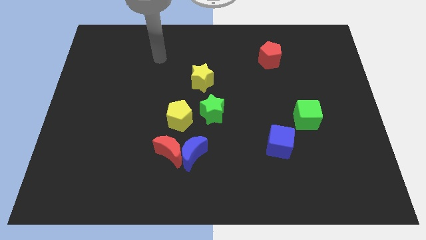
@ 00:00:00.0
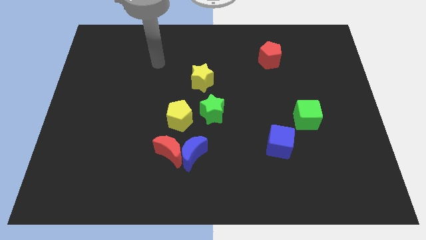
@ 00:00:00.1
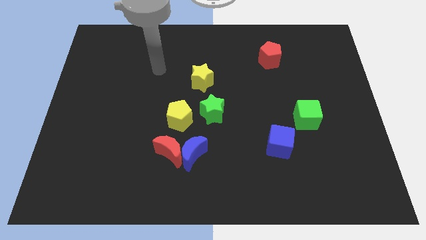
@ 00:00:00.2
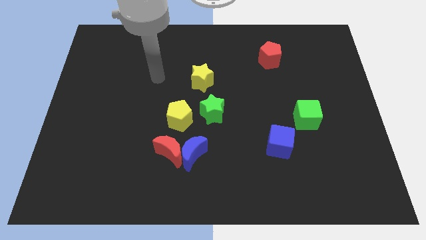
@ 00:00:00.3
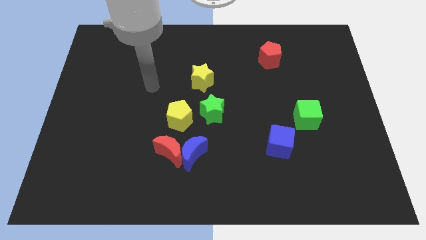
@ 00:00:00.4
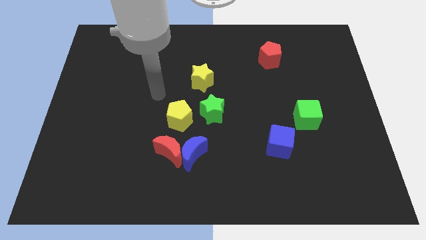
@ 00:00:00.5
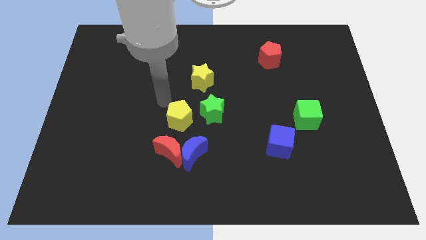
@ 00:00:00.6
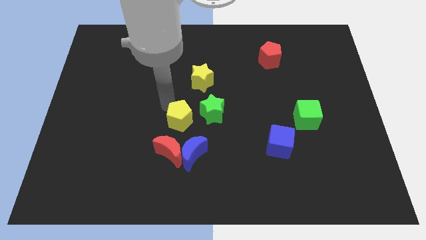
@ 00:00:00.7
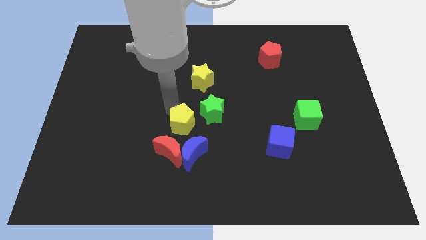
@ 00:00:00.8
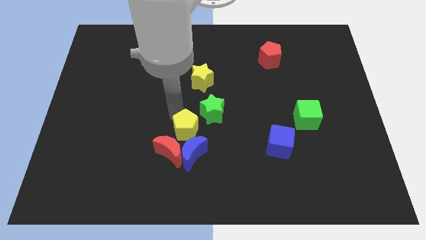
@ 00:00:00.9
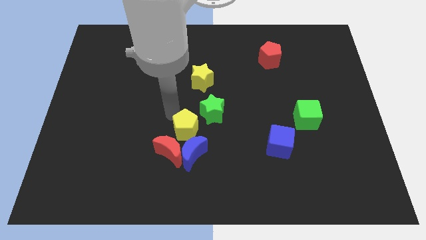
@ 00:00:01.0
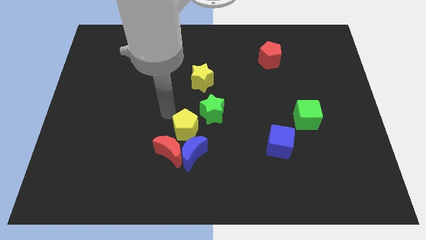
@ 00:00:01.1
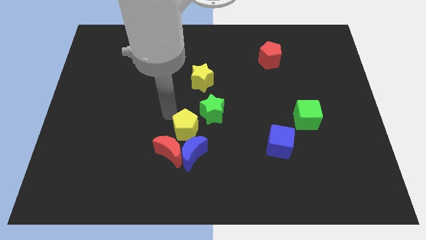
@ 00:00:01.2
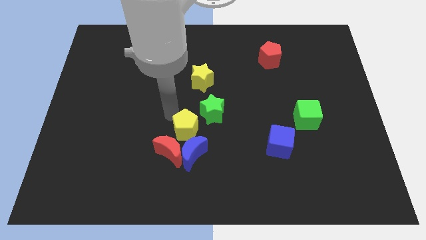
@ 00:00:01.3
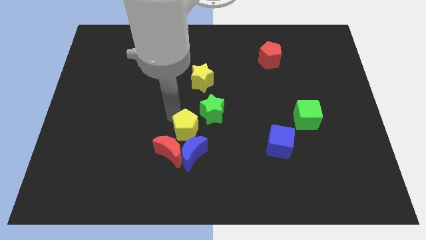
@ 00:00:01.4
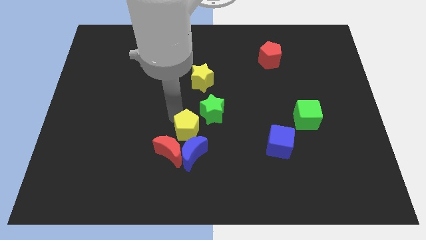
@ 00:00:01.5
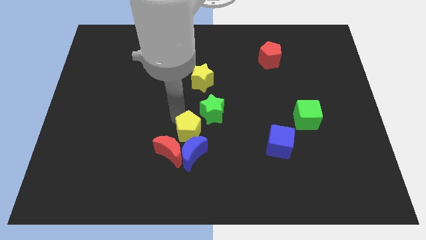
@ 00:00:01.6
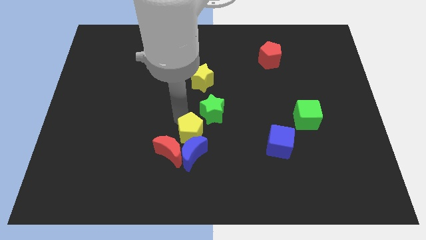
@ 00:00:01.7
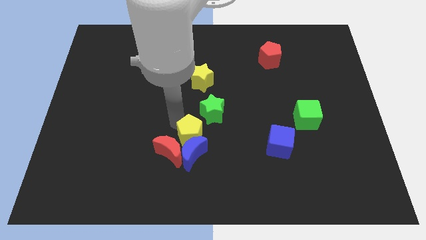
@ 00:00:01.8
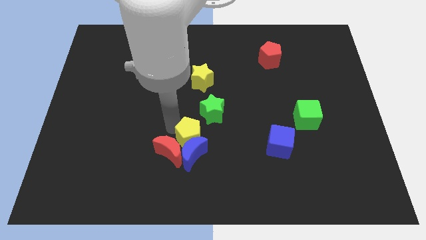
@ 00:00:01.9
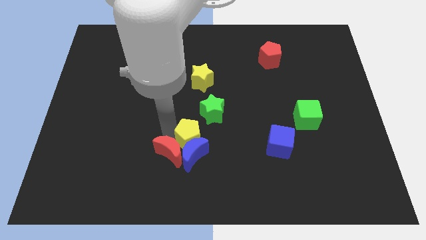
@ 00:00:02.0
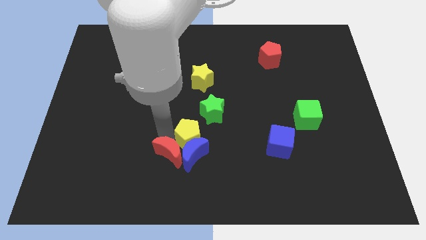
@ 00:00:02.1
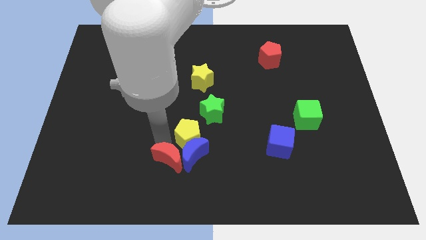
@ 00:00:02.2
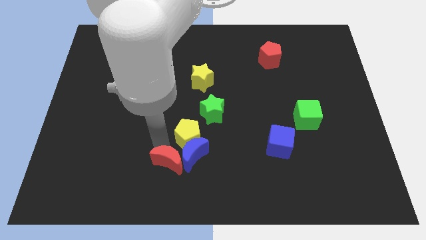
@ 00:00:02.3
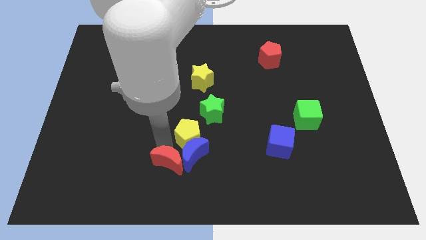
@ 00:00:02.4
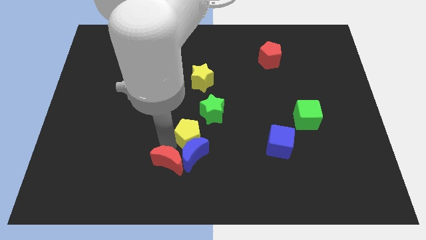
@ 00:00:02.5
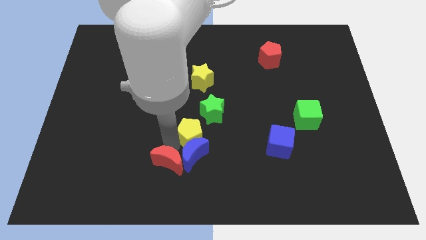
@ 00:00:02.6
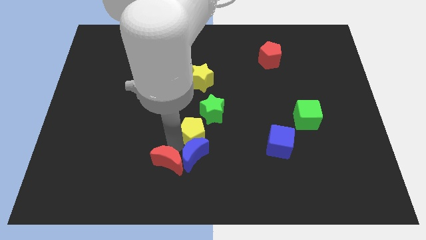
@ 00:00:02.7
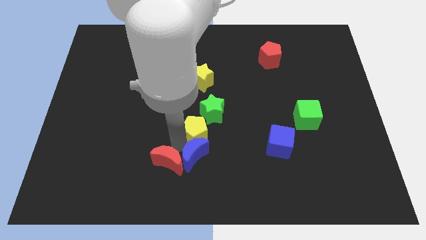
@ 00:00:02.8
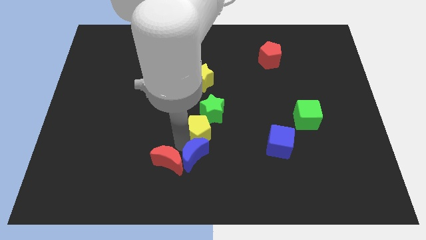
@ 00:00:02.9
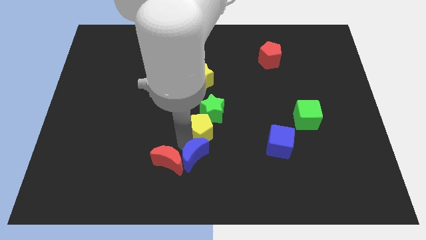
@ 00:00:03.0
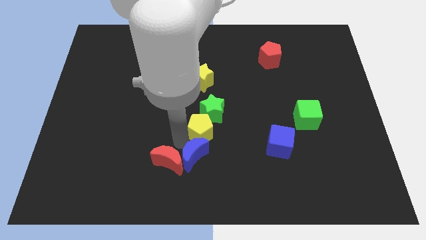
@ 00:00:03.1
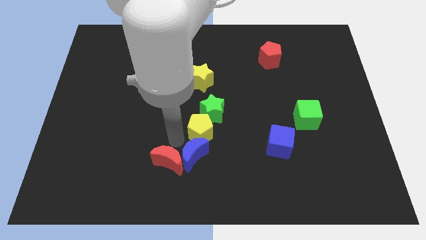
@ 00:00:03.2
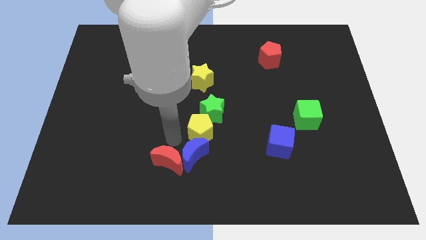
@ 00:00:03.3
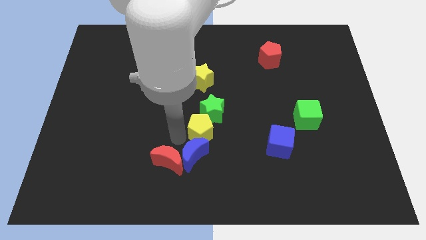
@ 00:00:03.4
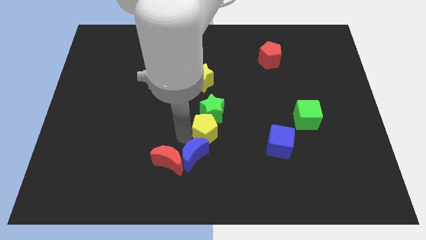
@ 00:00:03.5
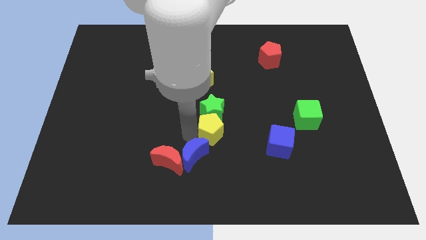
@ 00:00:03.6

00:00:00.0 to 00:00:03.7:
slide the yellow pentagon somewhat right

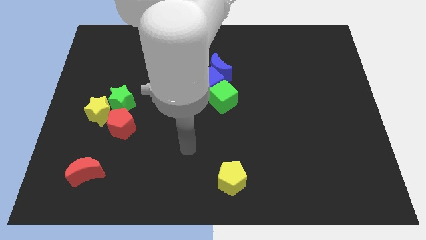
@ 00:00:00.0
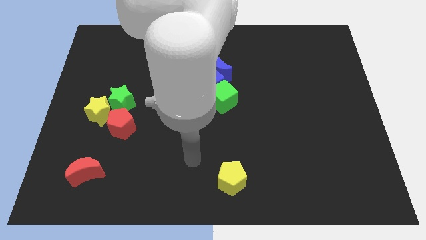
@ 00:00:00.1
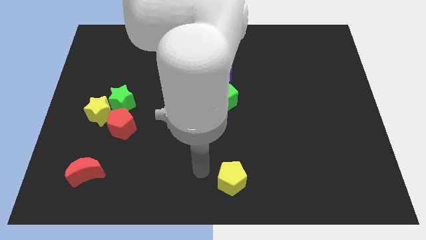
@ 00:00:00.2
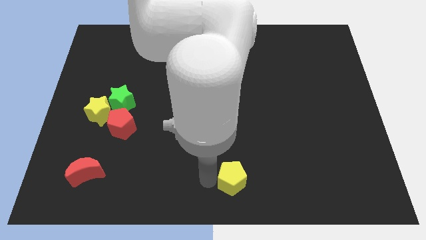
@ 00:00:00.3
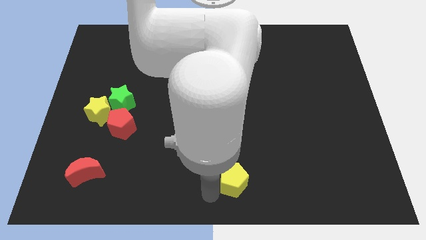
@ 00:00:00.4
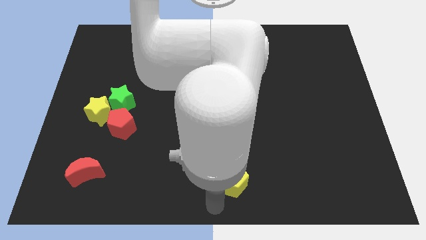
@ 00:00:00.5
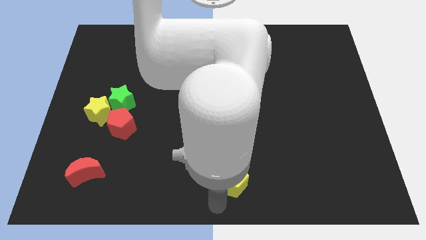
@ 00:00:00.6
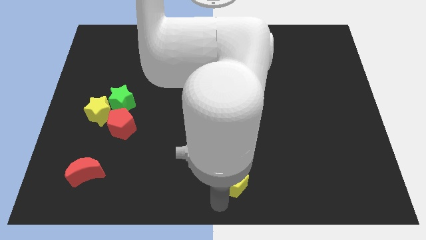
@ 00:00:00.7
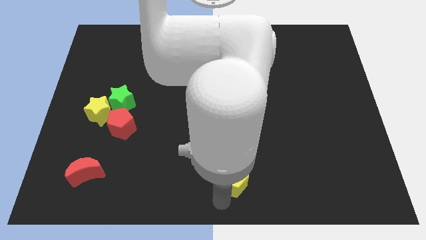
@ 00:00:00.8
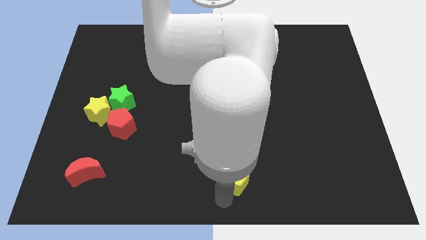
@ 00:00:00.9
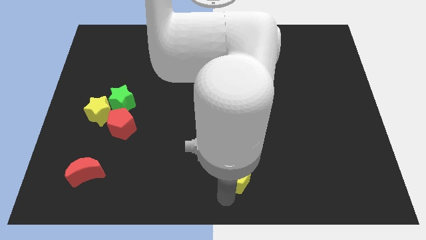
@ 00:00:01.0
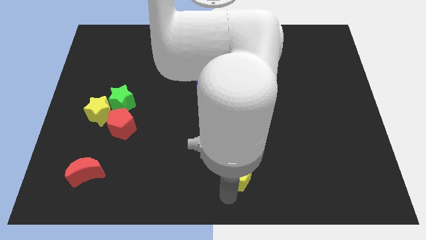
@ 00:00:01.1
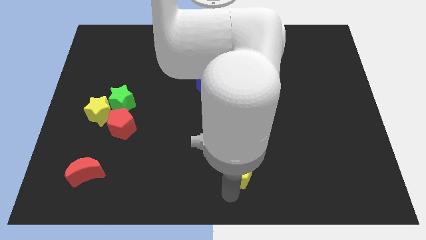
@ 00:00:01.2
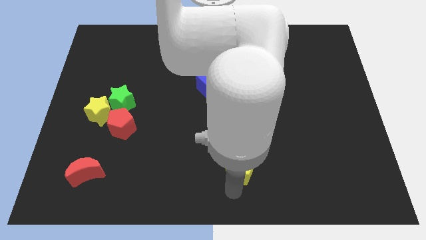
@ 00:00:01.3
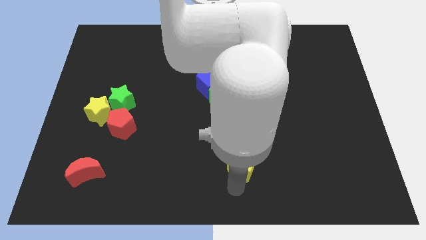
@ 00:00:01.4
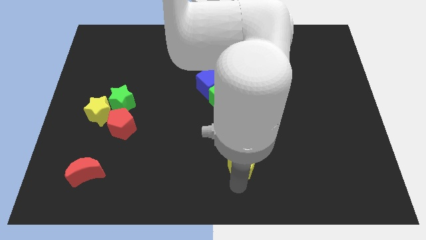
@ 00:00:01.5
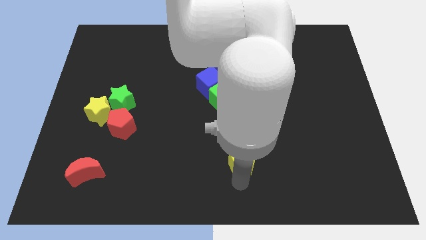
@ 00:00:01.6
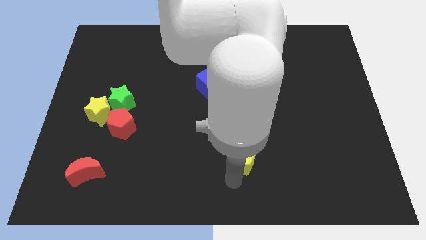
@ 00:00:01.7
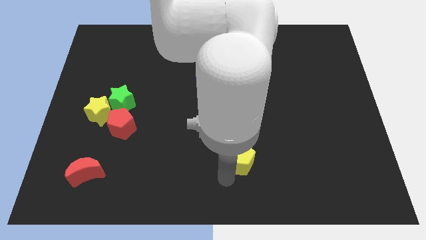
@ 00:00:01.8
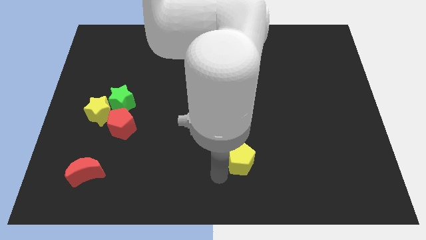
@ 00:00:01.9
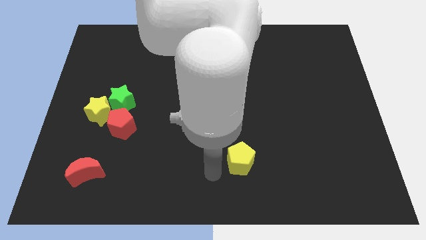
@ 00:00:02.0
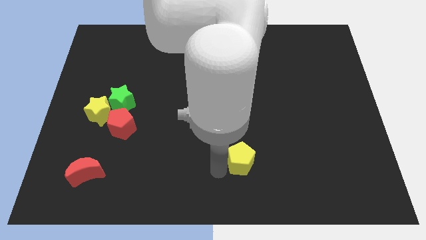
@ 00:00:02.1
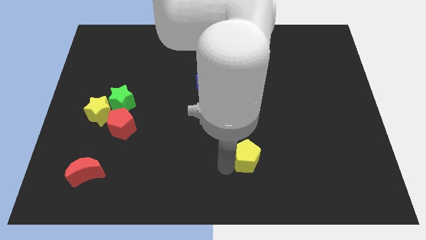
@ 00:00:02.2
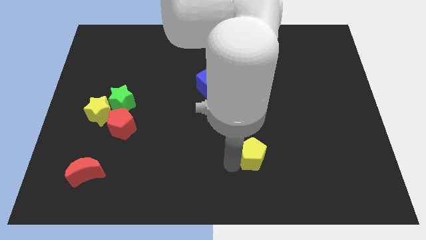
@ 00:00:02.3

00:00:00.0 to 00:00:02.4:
slide the yellow pentagon upwards and then to the right a little bit

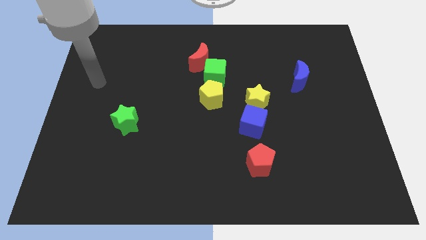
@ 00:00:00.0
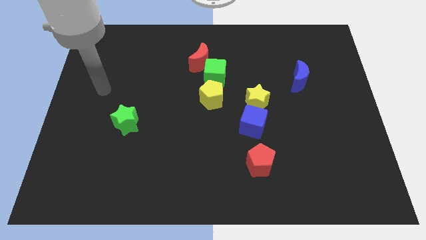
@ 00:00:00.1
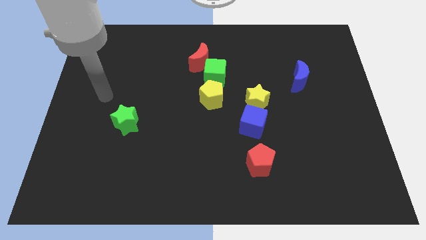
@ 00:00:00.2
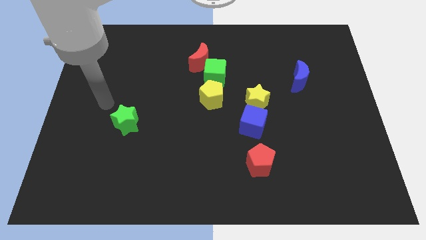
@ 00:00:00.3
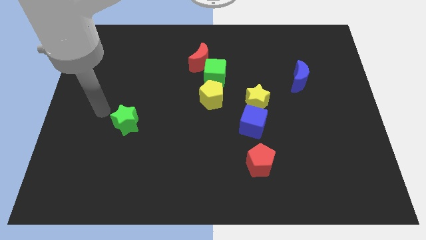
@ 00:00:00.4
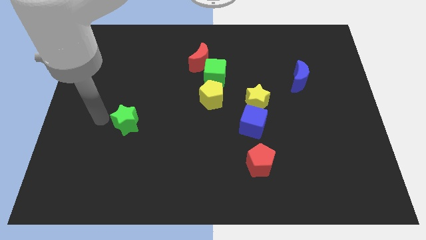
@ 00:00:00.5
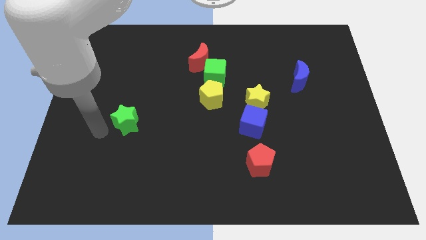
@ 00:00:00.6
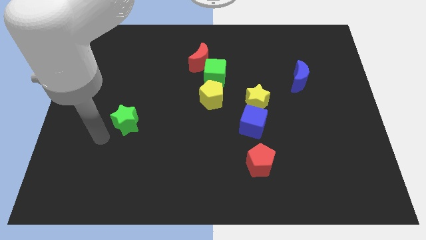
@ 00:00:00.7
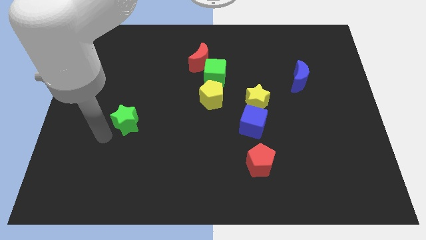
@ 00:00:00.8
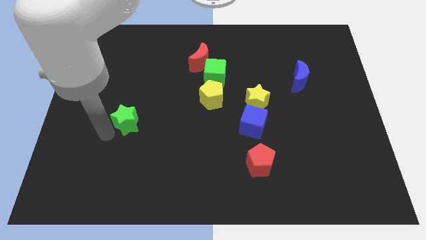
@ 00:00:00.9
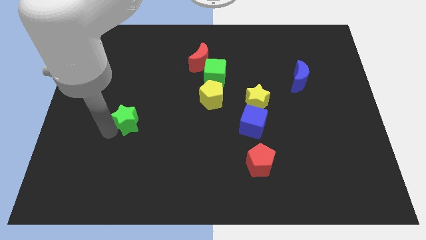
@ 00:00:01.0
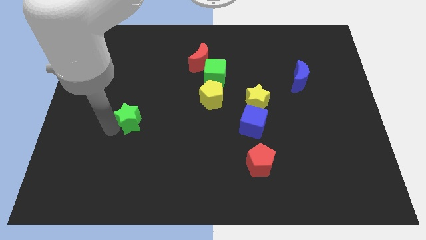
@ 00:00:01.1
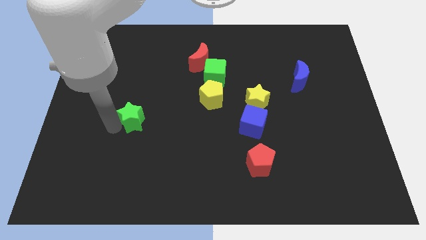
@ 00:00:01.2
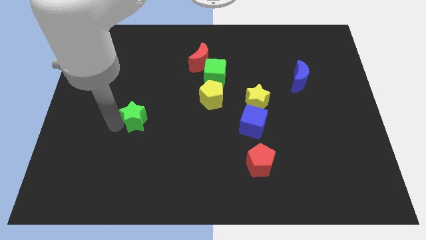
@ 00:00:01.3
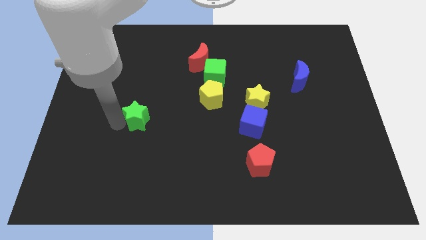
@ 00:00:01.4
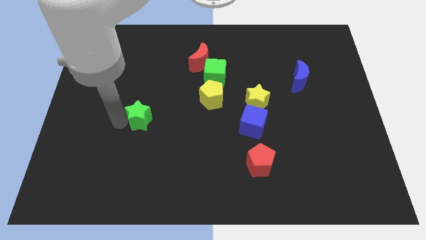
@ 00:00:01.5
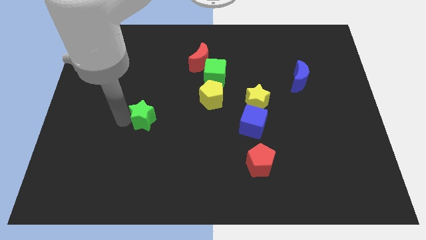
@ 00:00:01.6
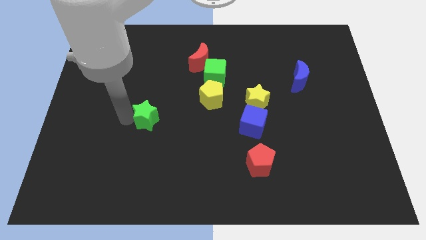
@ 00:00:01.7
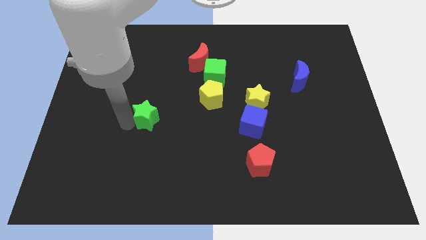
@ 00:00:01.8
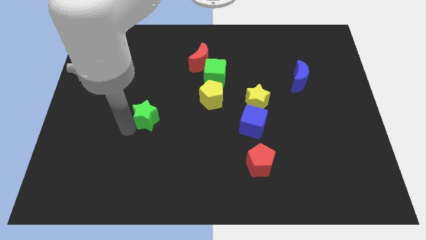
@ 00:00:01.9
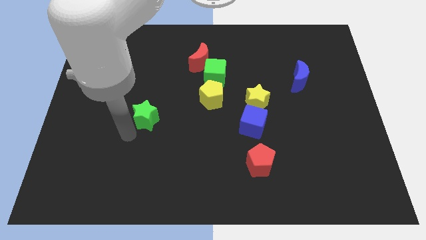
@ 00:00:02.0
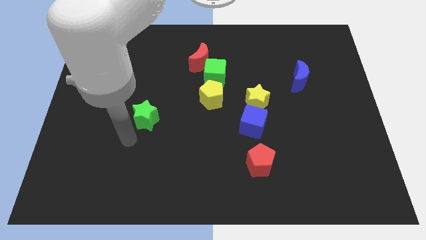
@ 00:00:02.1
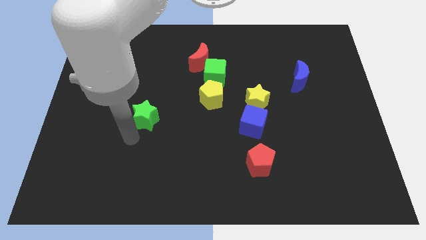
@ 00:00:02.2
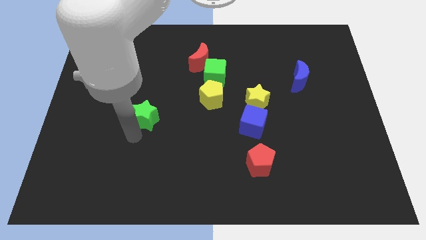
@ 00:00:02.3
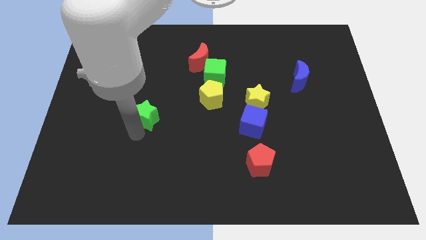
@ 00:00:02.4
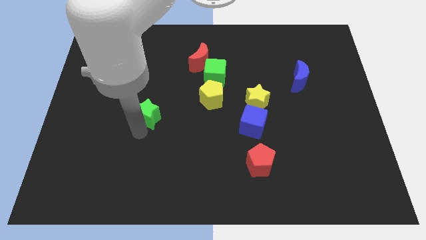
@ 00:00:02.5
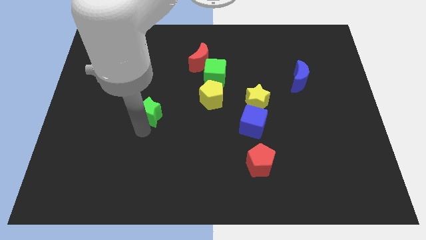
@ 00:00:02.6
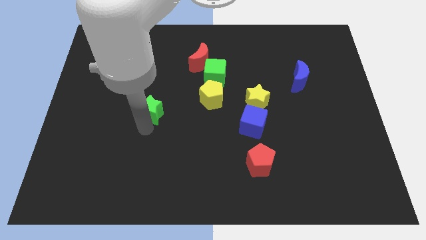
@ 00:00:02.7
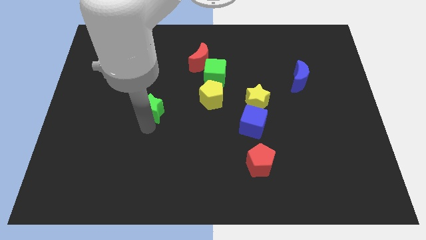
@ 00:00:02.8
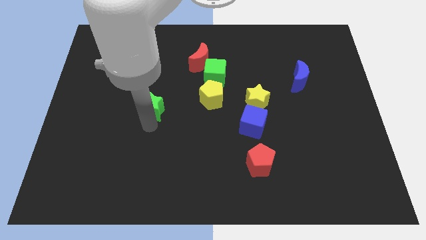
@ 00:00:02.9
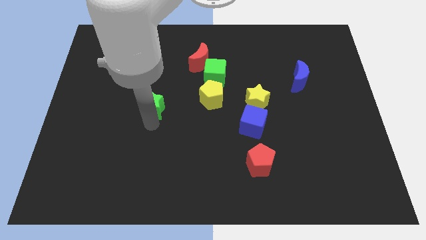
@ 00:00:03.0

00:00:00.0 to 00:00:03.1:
slightly move the green star upwards and to the right
